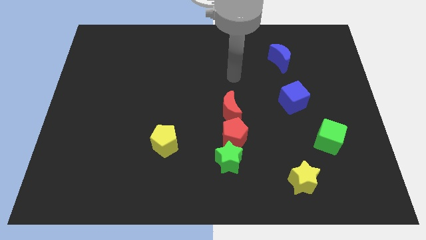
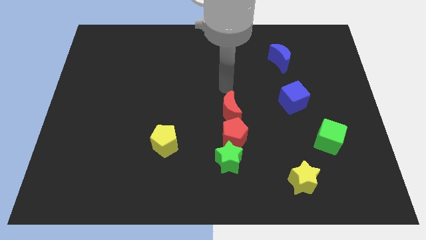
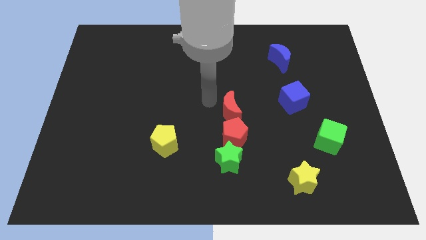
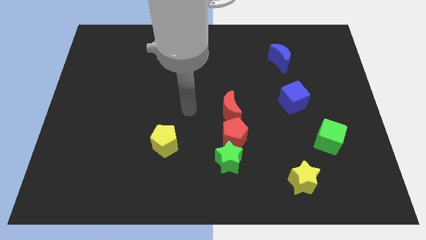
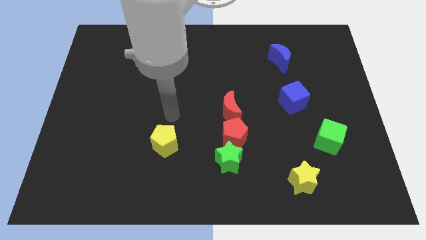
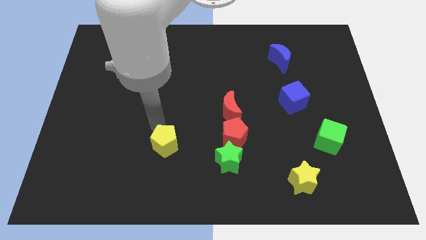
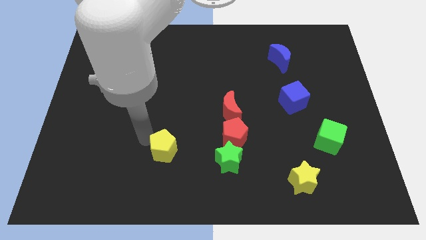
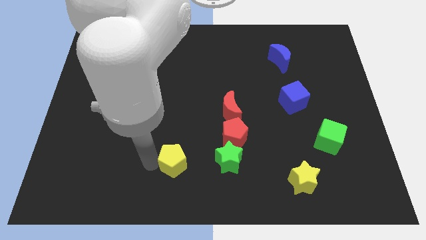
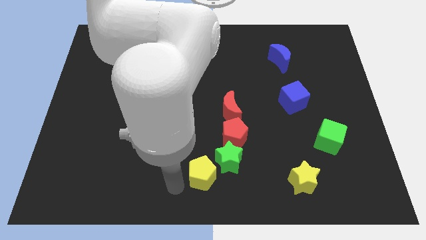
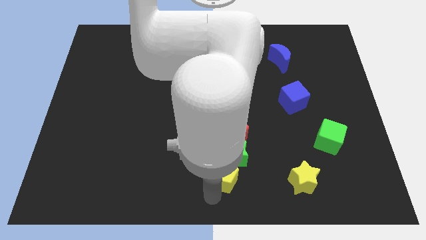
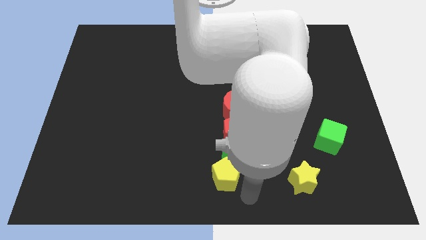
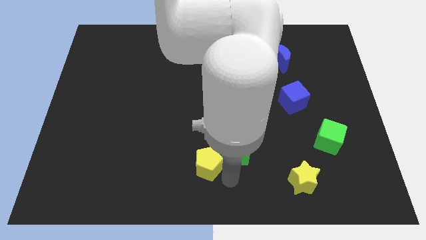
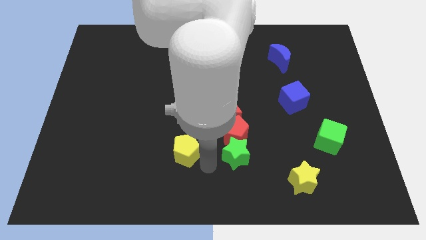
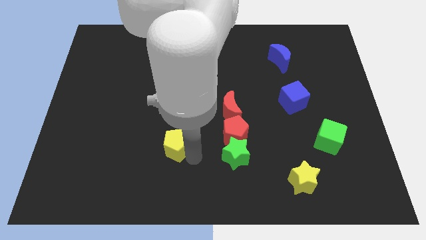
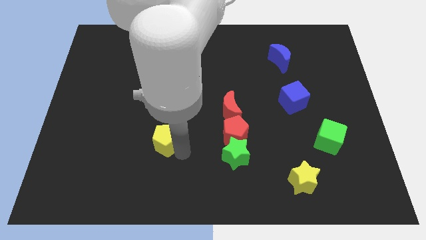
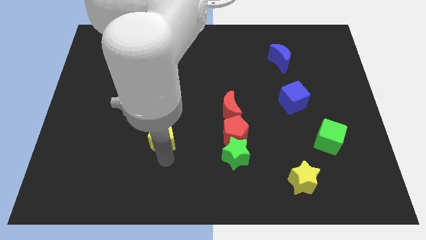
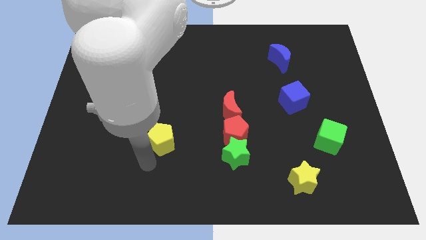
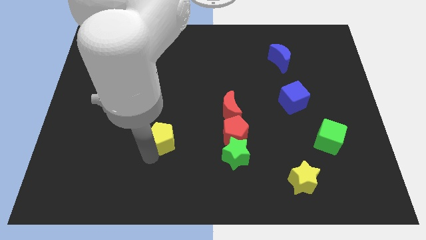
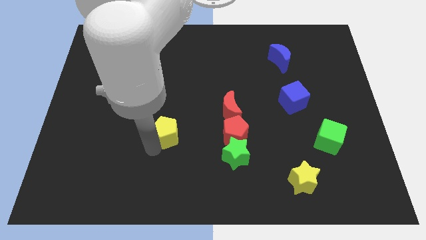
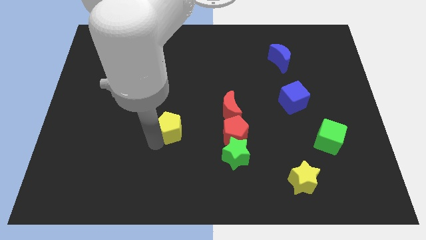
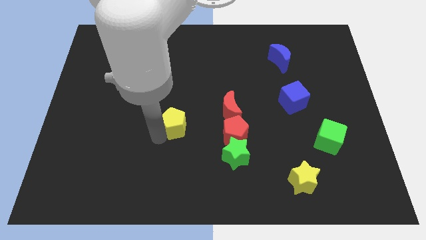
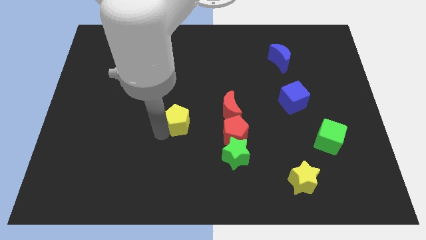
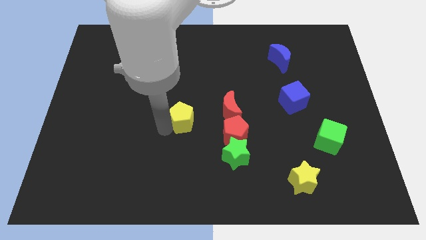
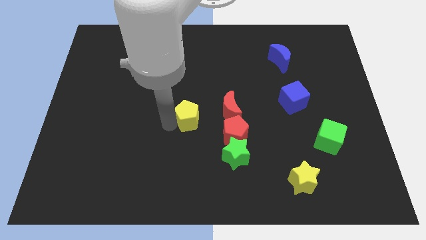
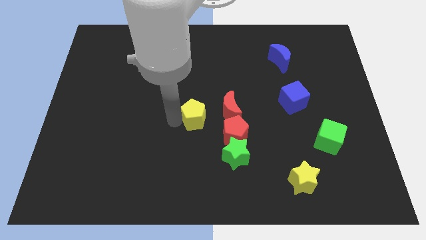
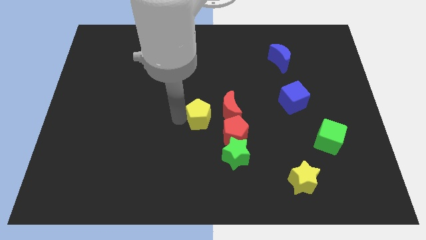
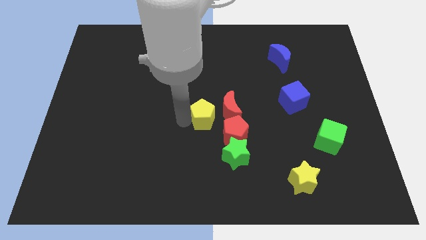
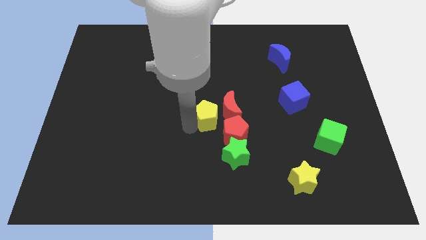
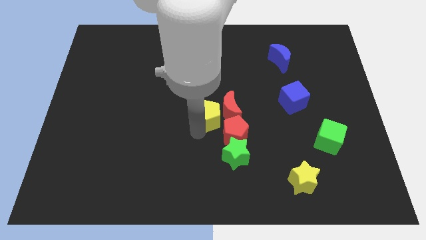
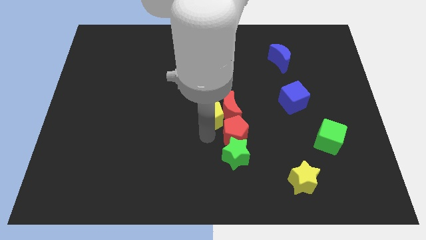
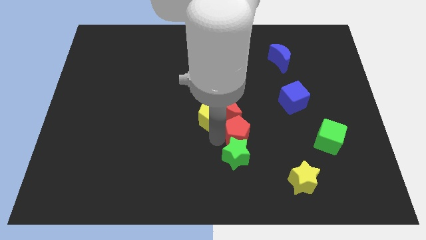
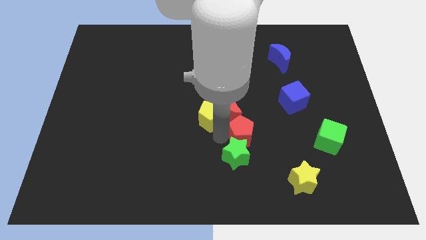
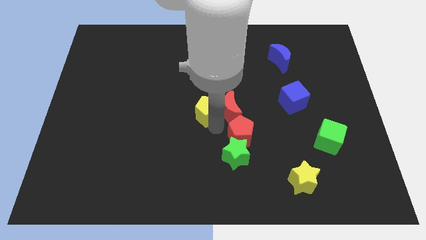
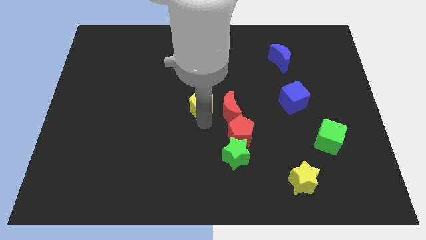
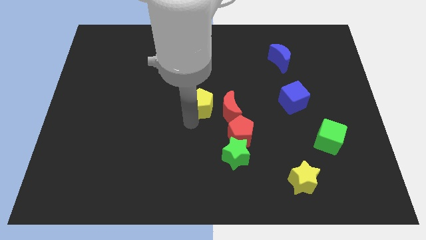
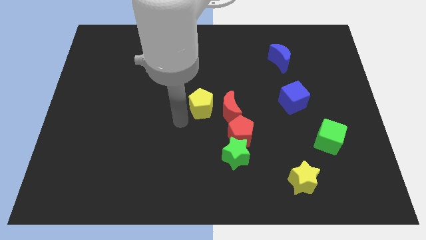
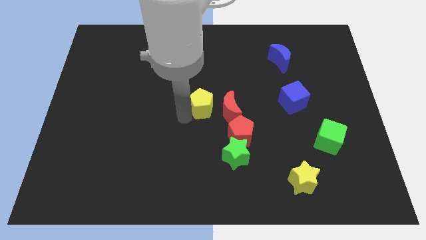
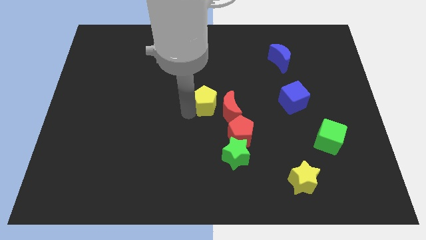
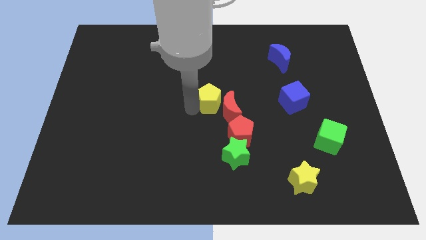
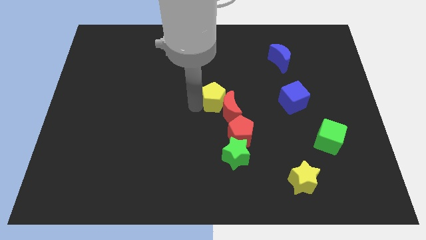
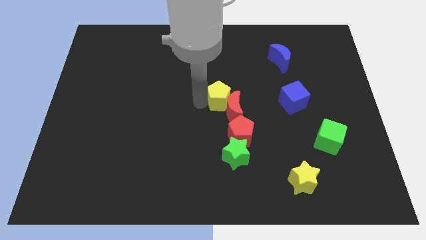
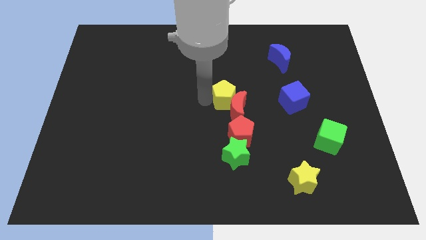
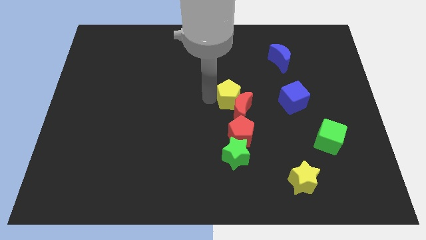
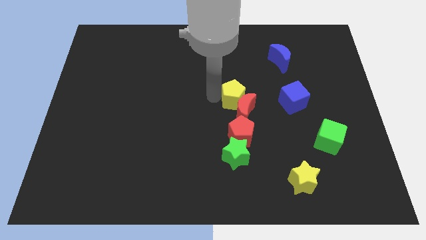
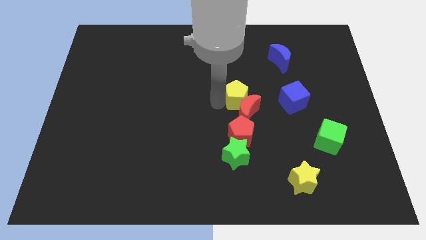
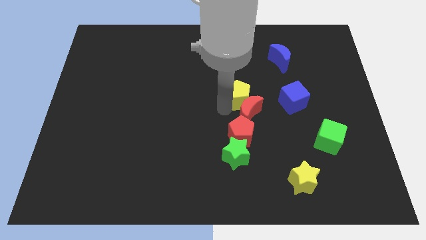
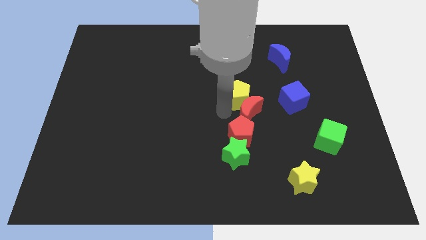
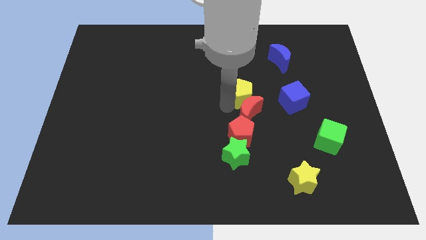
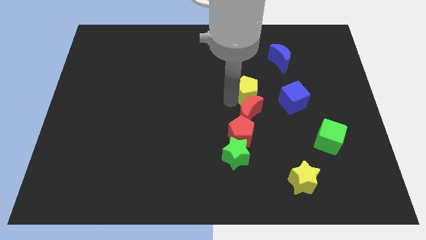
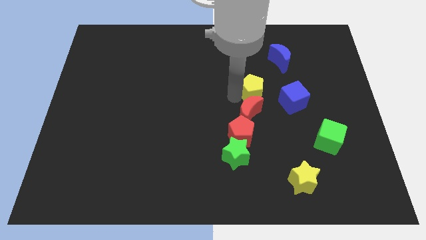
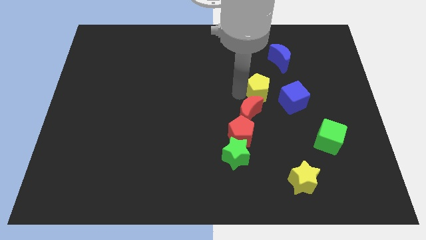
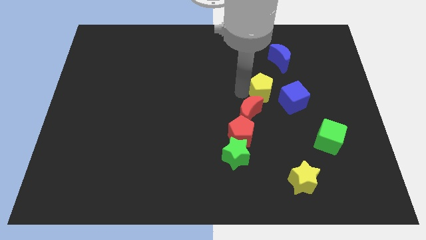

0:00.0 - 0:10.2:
slide the yellow pentagon to the bottom left of the blue moon

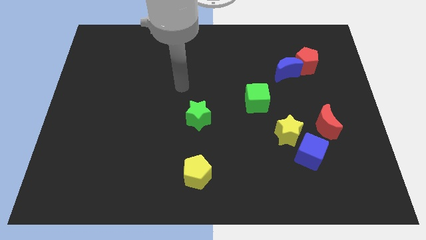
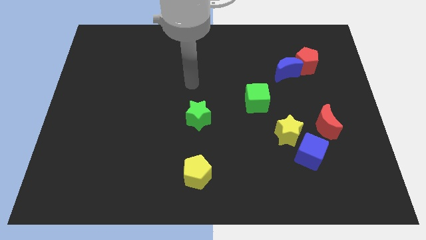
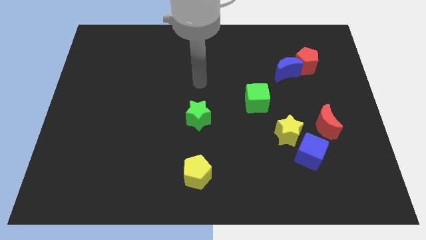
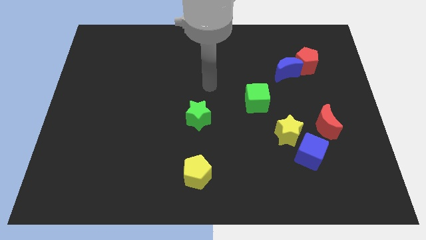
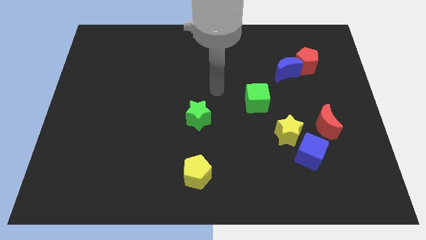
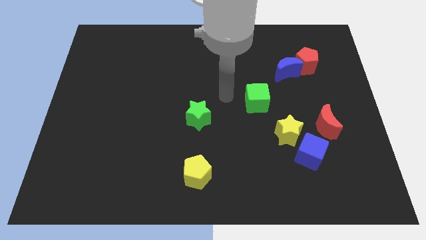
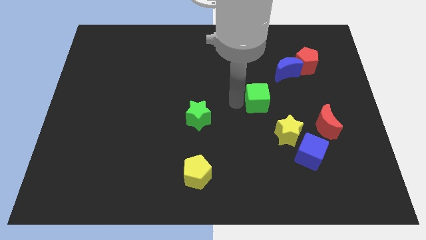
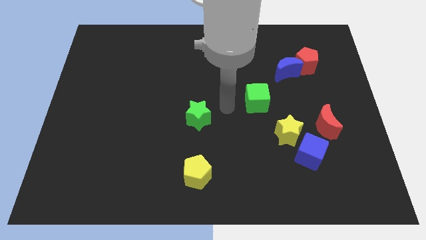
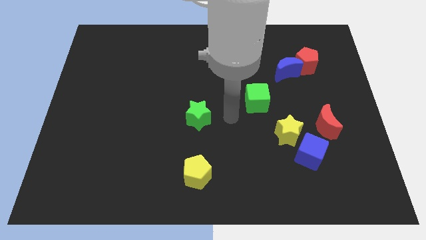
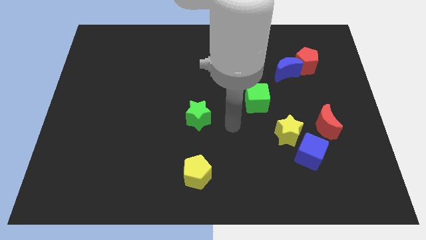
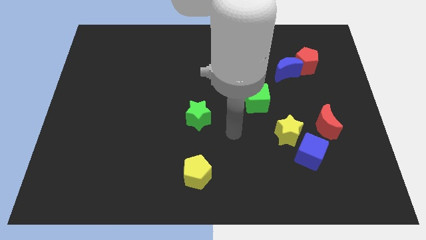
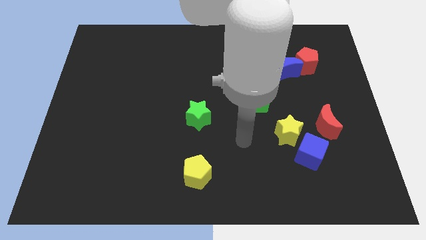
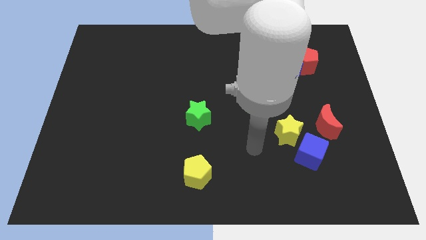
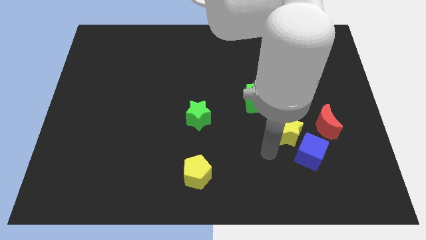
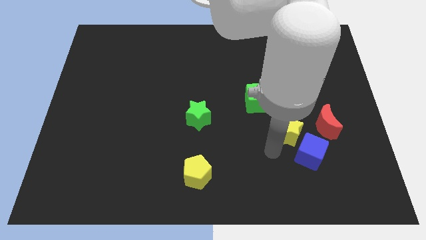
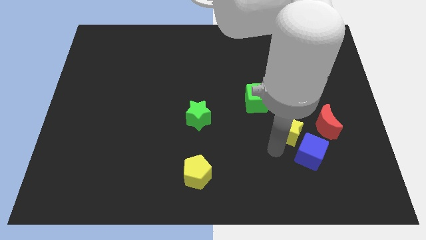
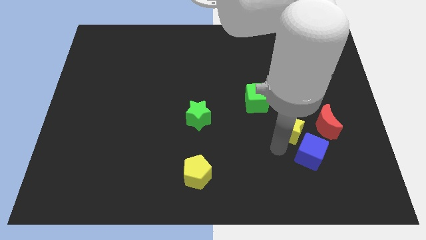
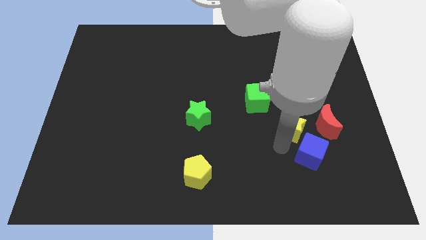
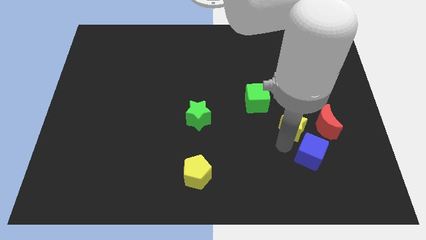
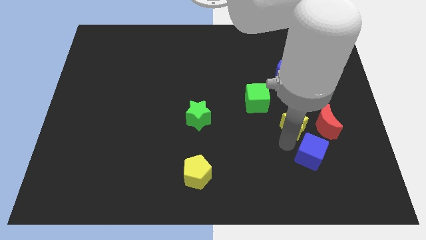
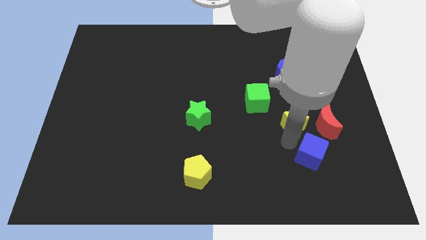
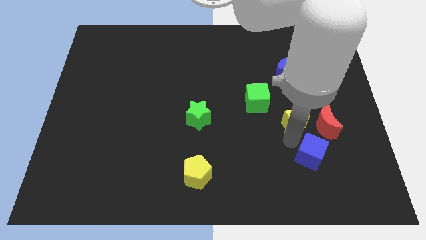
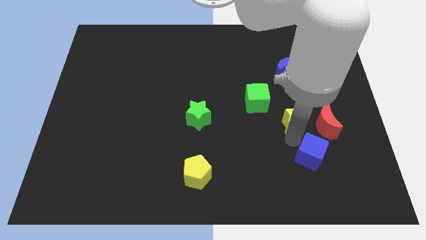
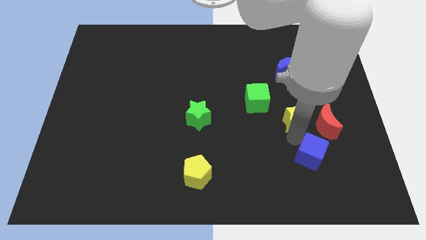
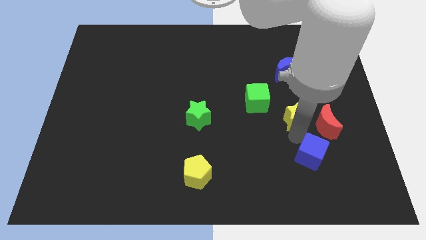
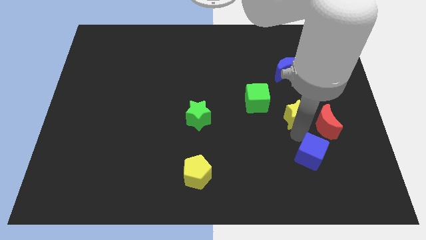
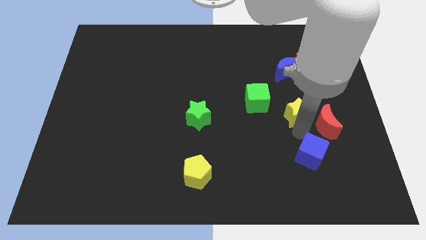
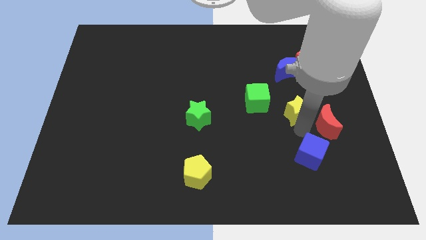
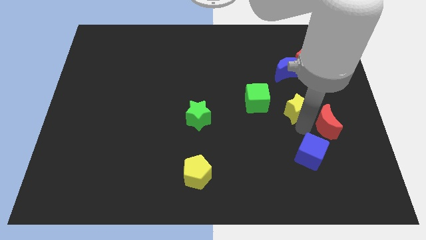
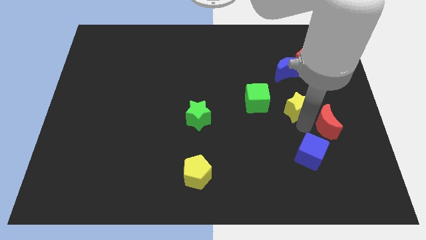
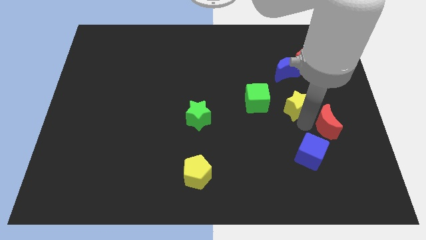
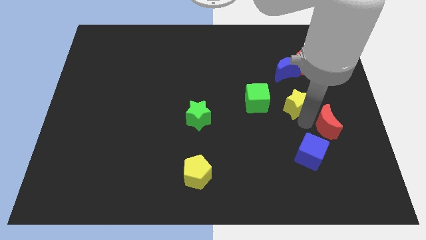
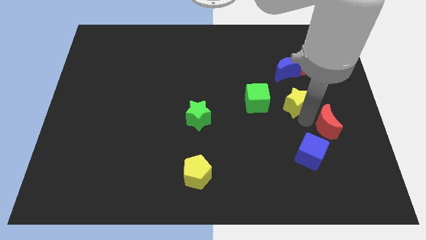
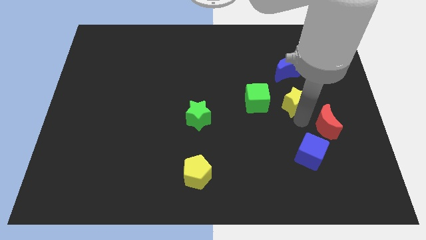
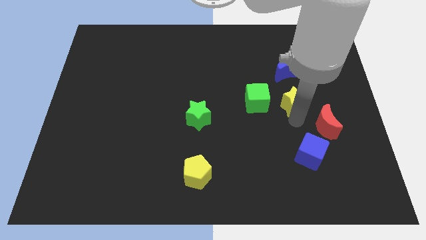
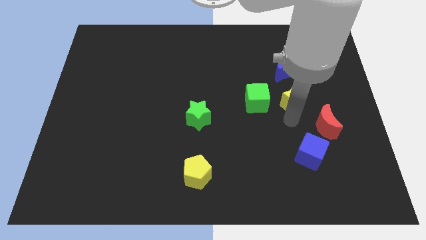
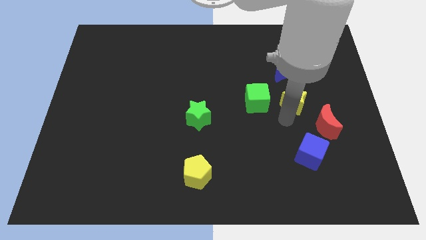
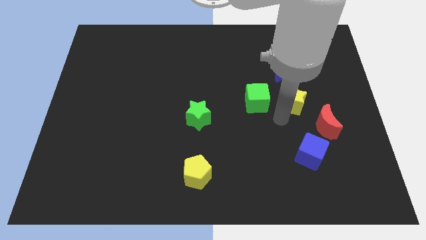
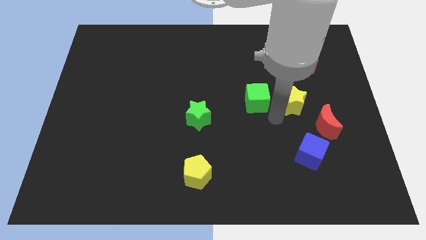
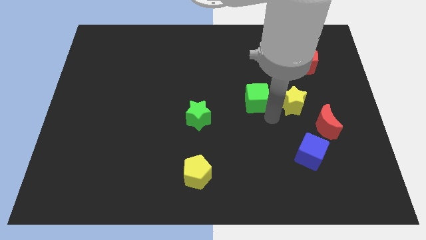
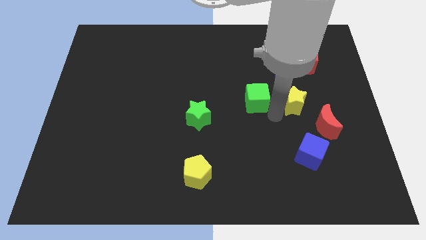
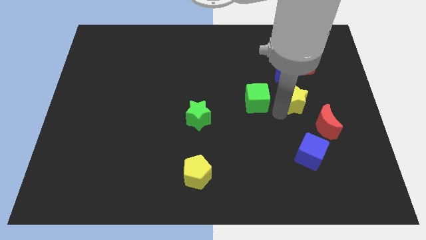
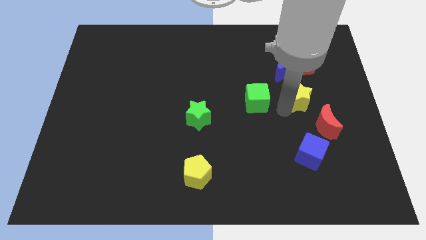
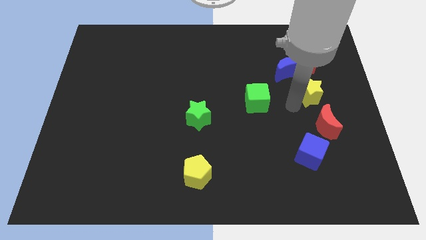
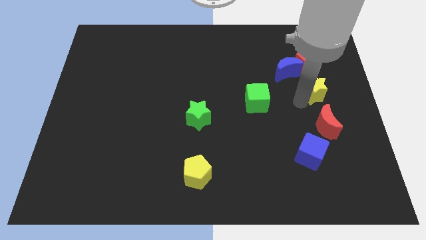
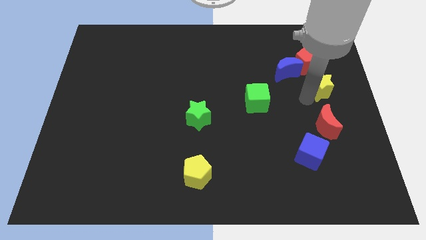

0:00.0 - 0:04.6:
push the yellow star to the bottom right side of the red pentagon
